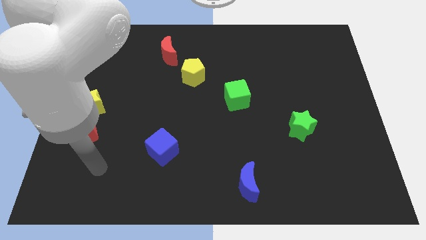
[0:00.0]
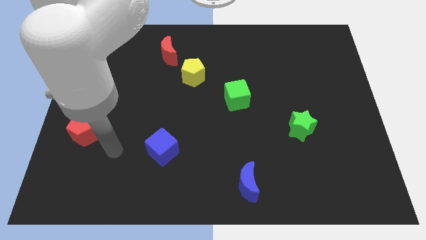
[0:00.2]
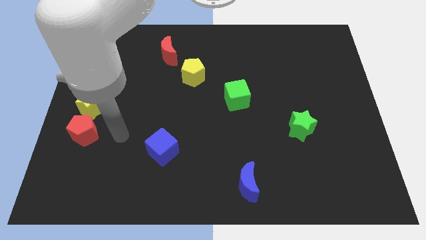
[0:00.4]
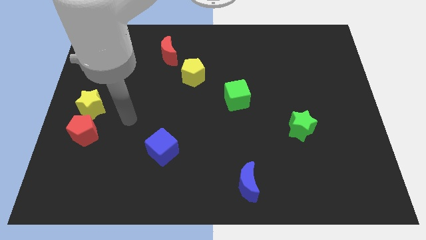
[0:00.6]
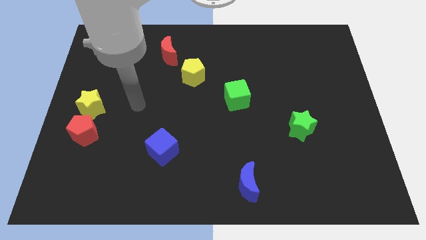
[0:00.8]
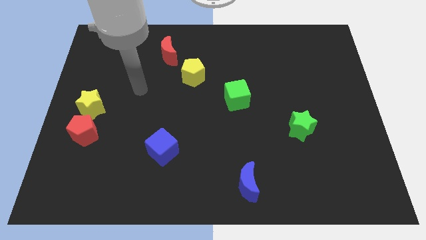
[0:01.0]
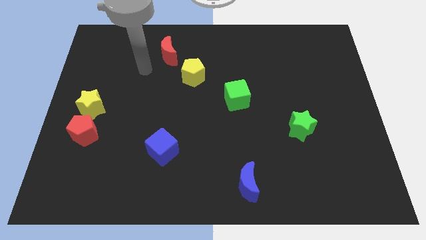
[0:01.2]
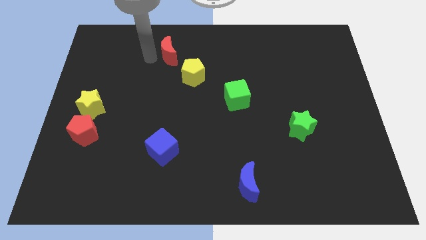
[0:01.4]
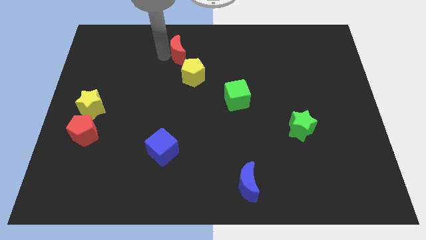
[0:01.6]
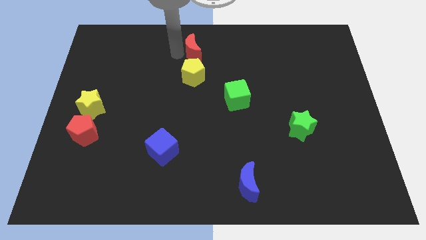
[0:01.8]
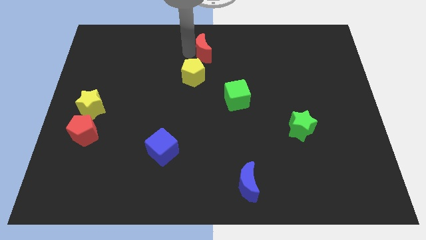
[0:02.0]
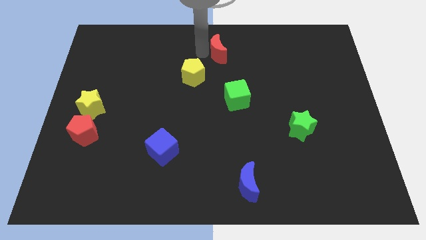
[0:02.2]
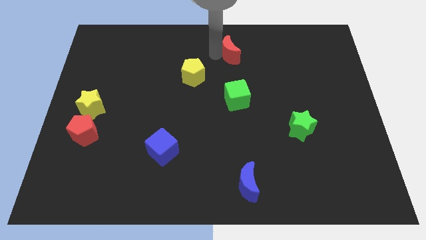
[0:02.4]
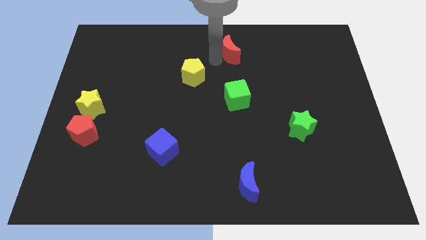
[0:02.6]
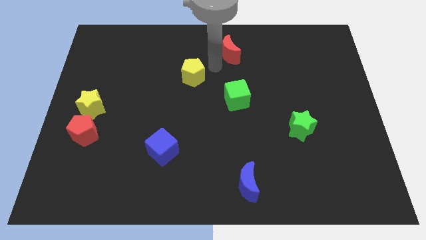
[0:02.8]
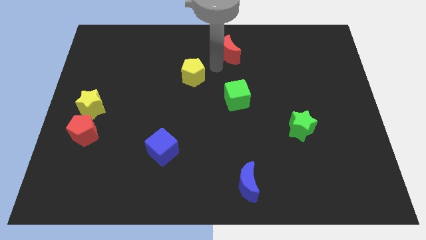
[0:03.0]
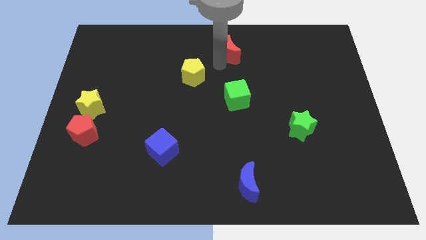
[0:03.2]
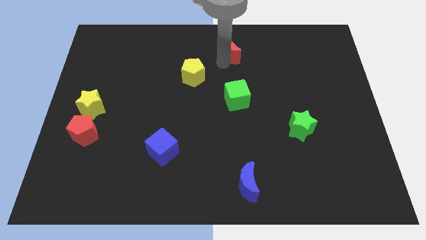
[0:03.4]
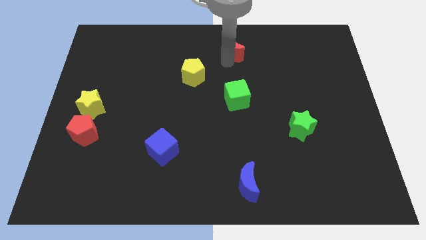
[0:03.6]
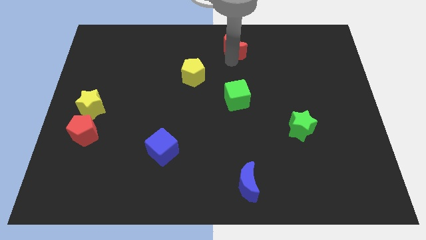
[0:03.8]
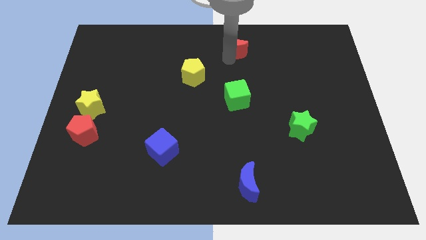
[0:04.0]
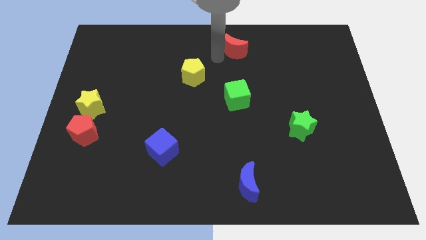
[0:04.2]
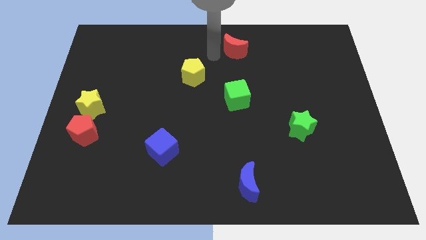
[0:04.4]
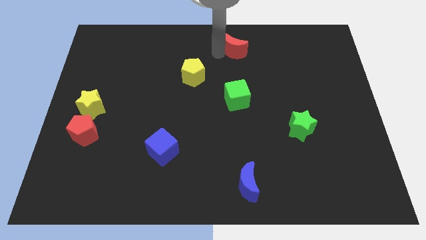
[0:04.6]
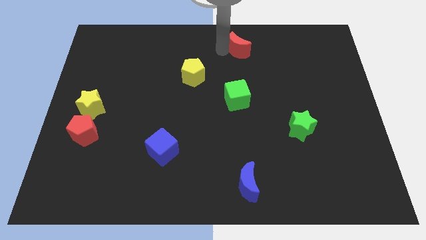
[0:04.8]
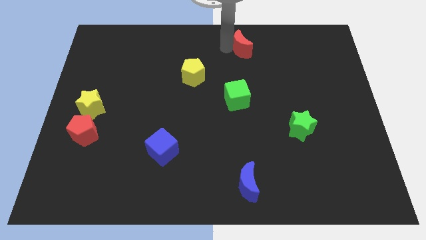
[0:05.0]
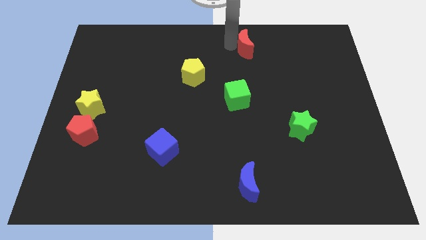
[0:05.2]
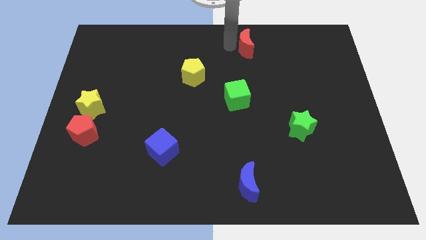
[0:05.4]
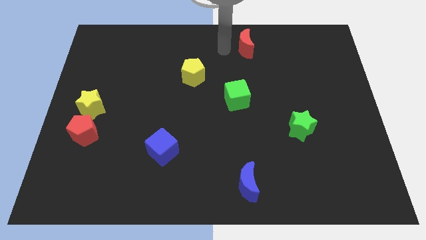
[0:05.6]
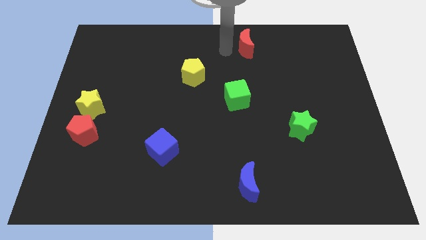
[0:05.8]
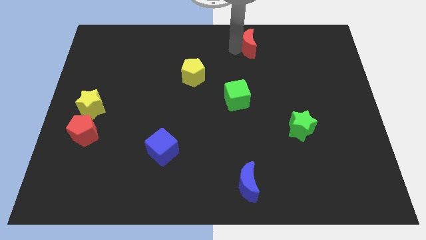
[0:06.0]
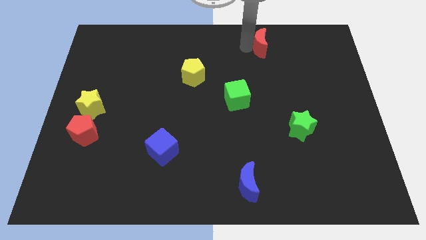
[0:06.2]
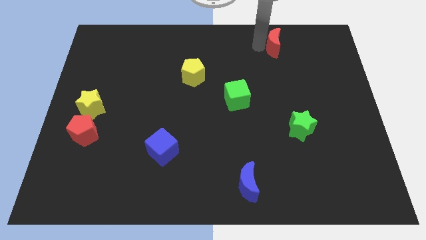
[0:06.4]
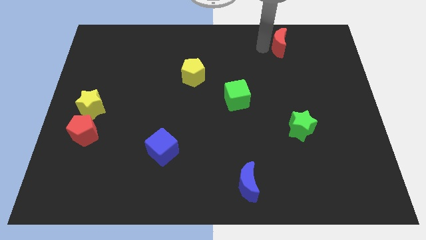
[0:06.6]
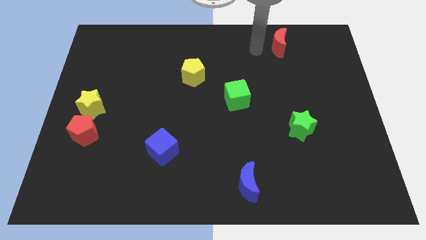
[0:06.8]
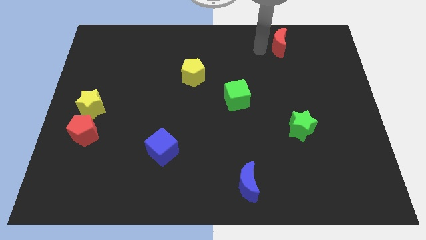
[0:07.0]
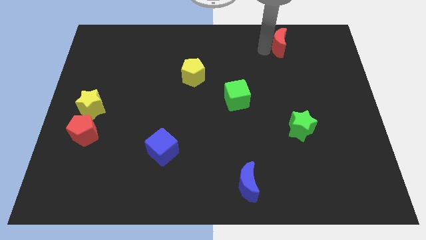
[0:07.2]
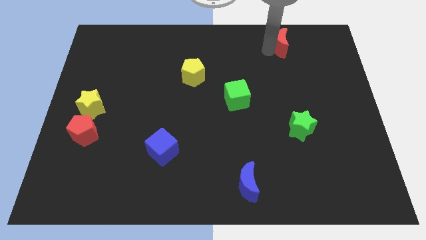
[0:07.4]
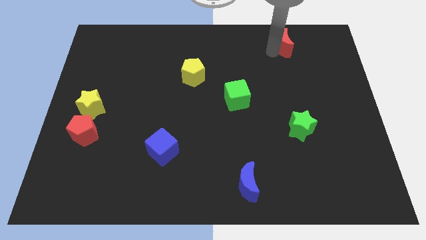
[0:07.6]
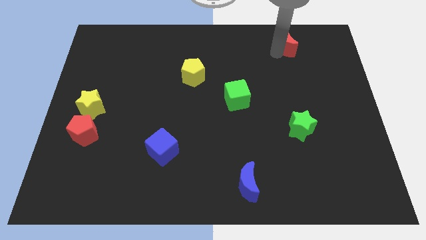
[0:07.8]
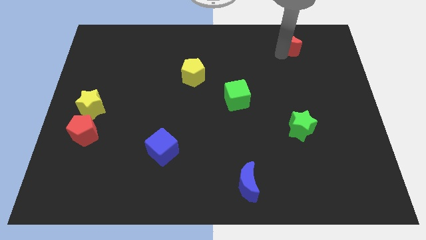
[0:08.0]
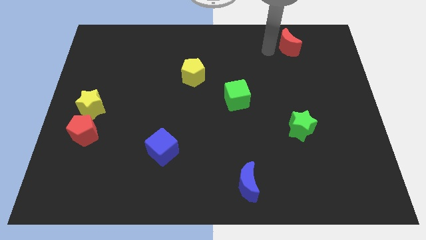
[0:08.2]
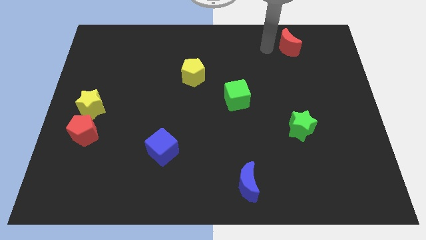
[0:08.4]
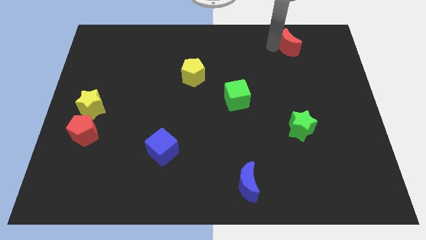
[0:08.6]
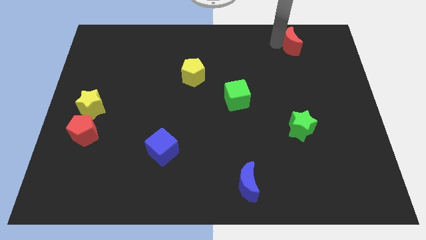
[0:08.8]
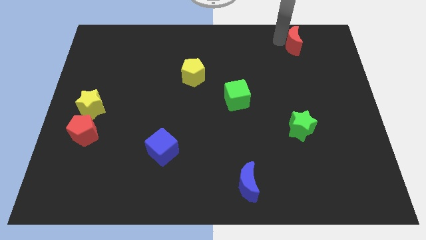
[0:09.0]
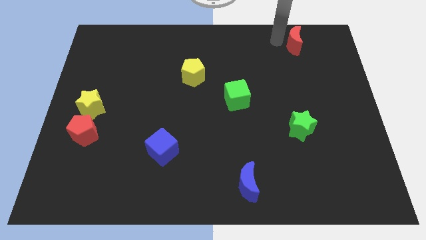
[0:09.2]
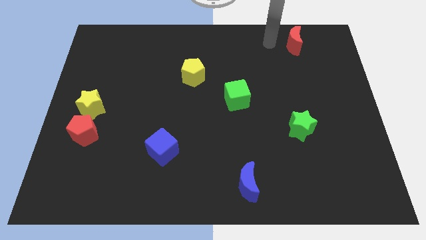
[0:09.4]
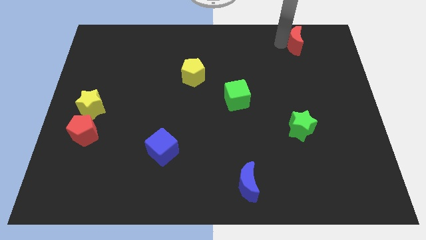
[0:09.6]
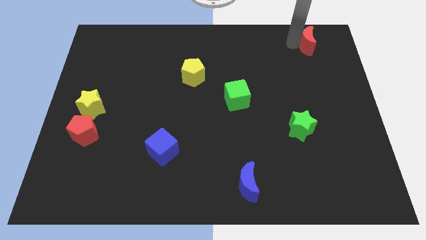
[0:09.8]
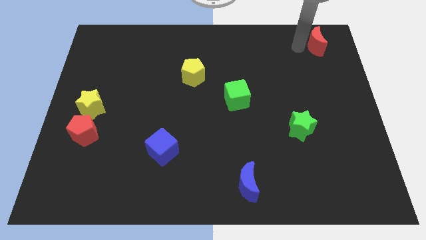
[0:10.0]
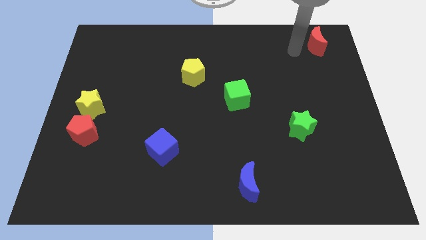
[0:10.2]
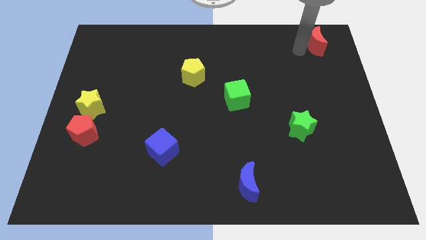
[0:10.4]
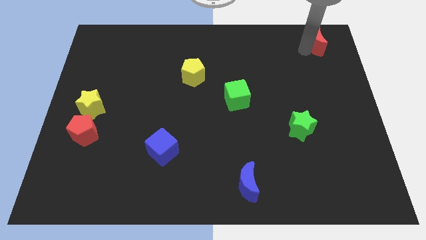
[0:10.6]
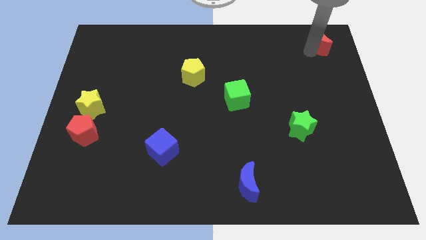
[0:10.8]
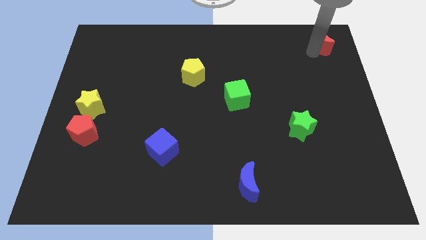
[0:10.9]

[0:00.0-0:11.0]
put the red moon to the upper right corner

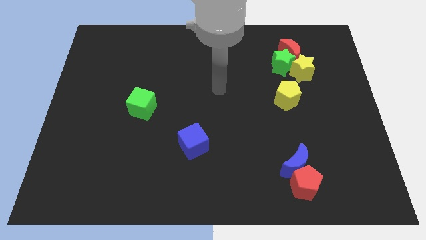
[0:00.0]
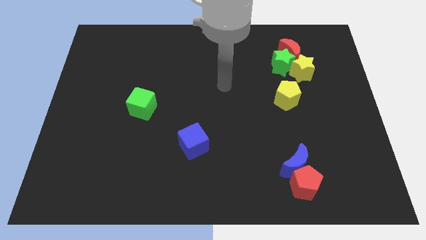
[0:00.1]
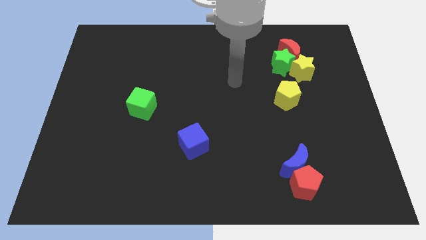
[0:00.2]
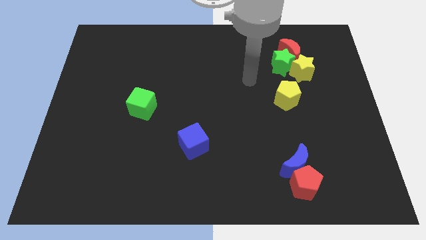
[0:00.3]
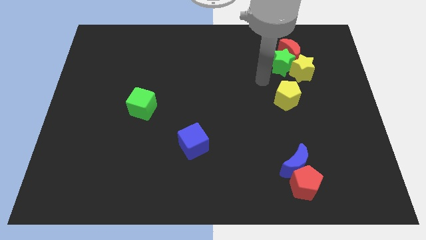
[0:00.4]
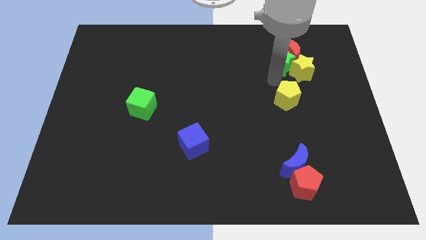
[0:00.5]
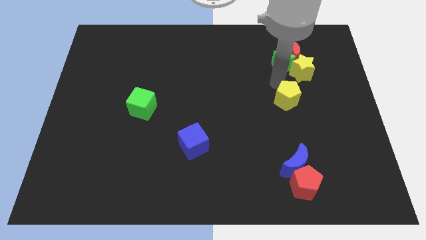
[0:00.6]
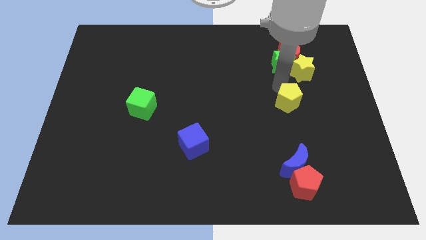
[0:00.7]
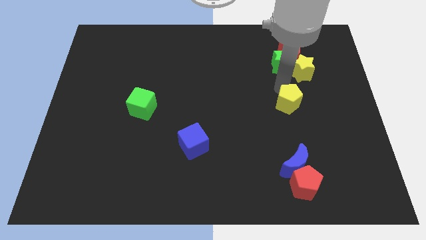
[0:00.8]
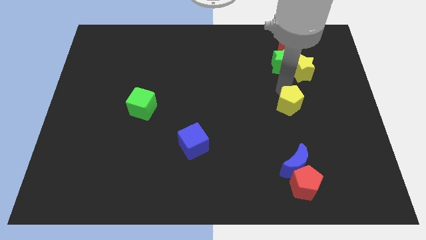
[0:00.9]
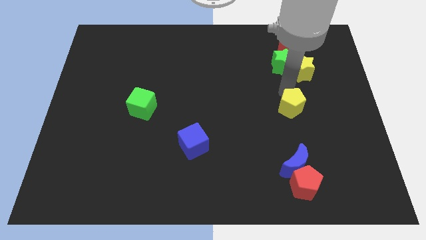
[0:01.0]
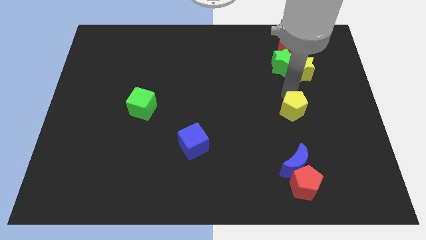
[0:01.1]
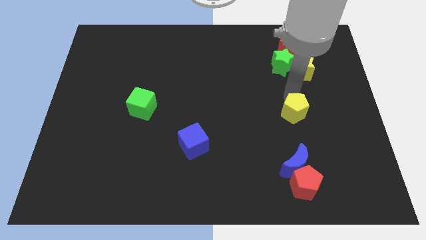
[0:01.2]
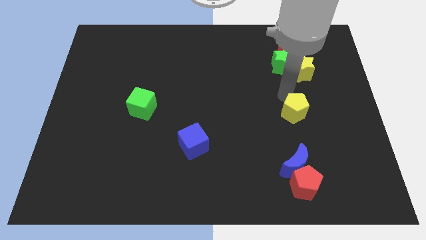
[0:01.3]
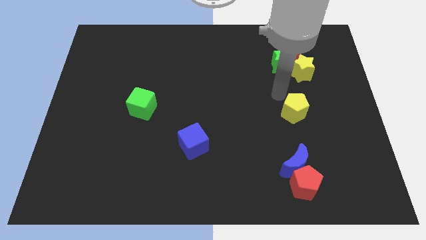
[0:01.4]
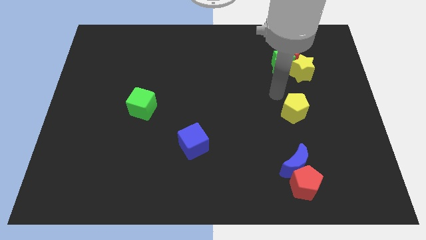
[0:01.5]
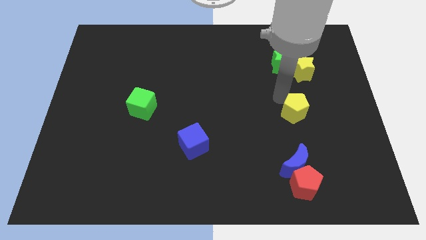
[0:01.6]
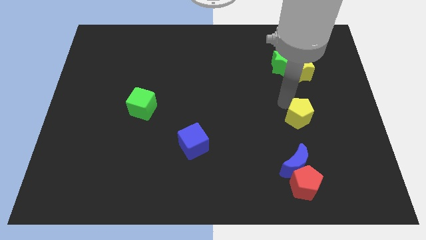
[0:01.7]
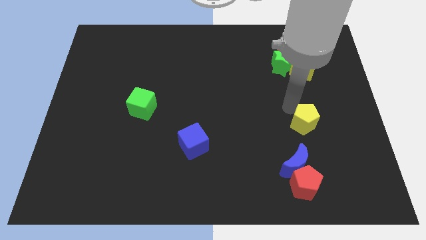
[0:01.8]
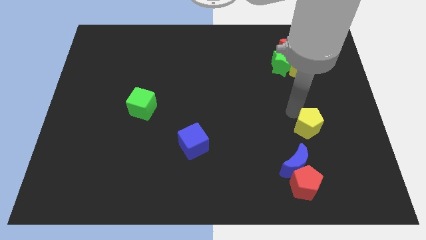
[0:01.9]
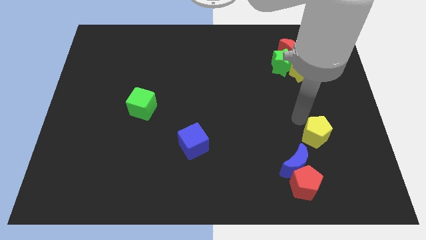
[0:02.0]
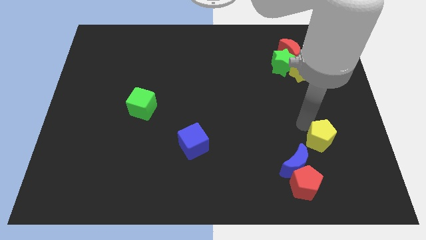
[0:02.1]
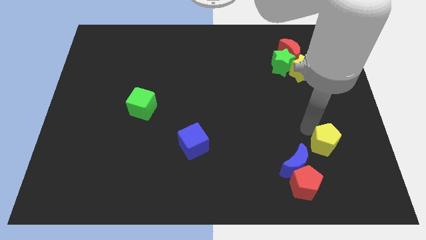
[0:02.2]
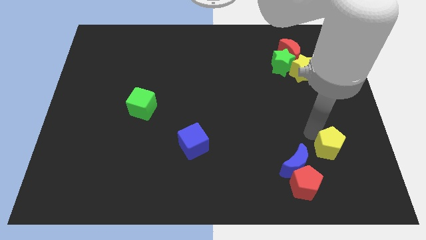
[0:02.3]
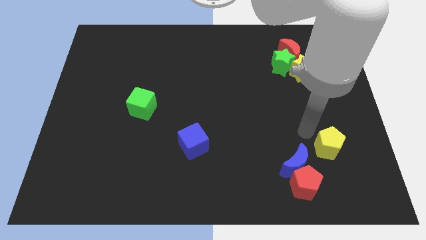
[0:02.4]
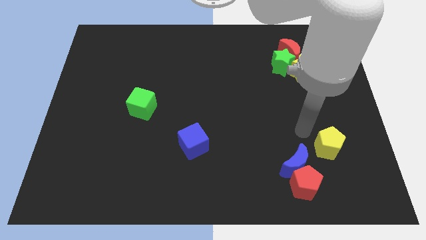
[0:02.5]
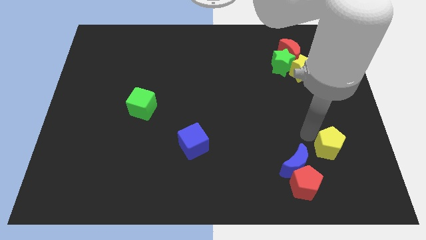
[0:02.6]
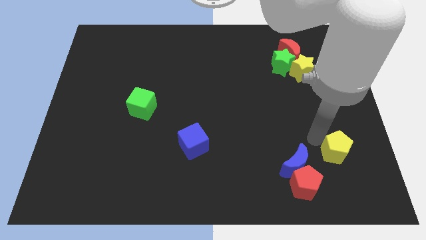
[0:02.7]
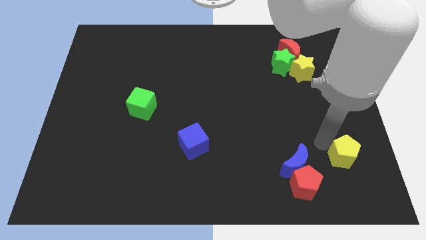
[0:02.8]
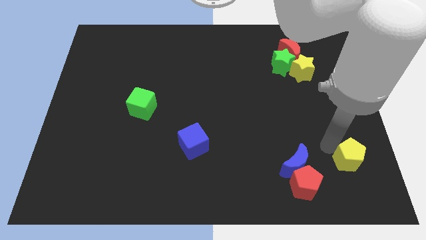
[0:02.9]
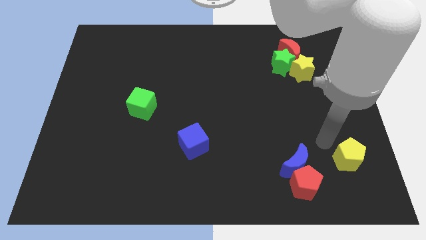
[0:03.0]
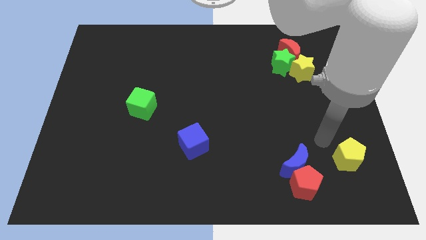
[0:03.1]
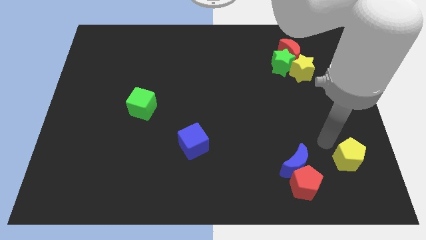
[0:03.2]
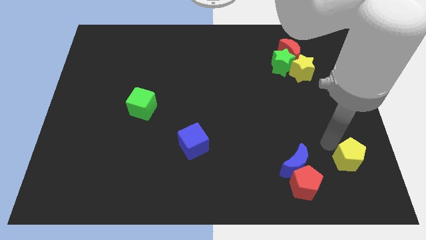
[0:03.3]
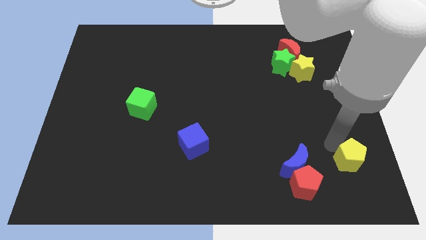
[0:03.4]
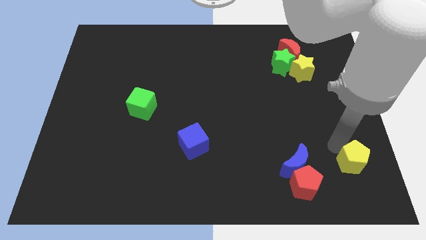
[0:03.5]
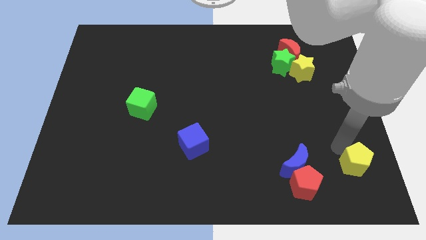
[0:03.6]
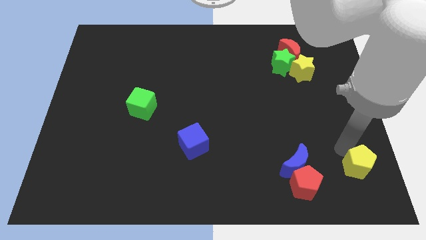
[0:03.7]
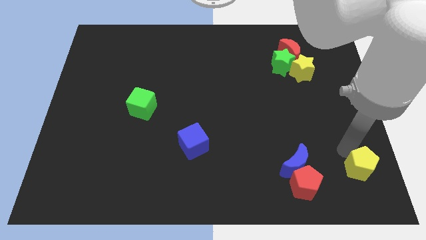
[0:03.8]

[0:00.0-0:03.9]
put the yellow pentagon to the bottom right of the board
